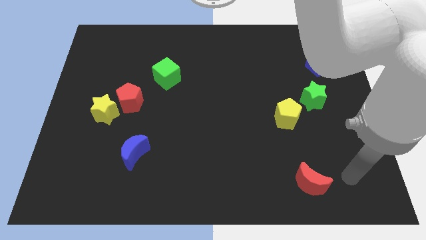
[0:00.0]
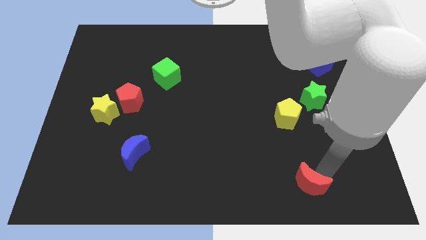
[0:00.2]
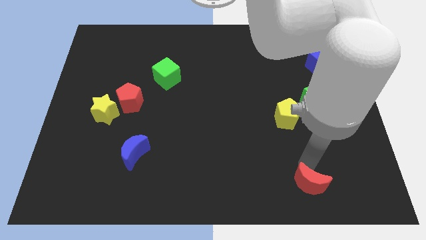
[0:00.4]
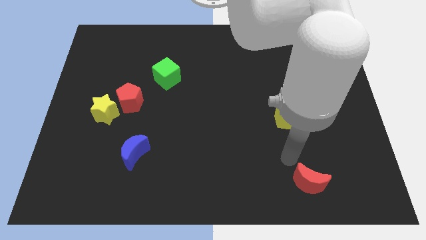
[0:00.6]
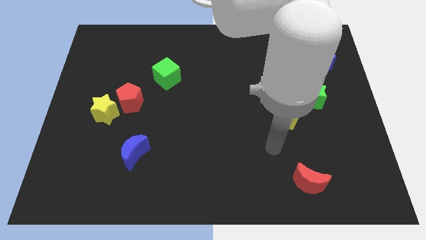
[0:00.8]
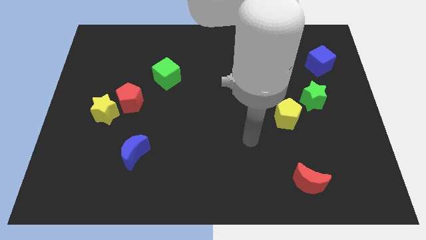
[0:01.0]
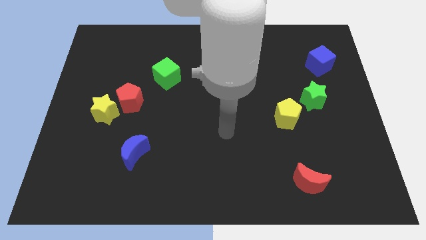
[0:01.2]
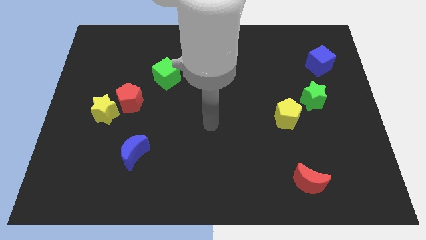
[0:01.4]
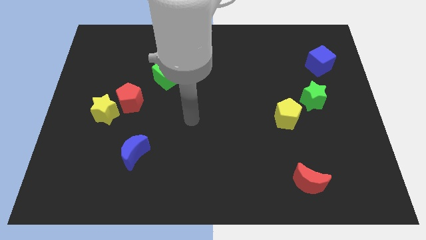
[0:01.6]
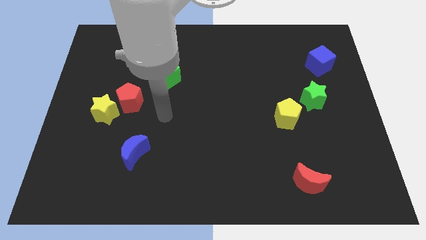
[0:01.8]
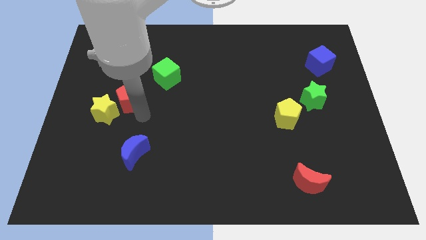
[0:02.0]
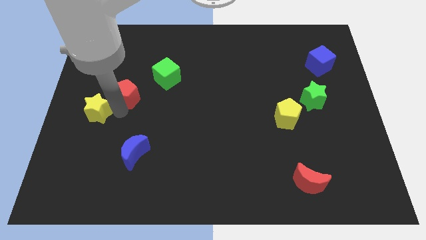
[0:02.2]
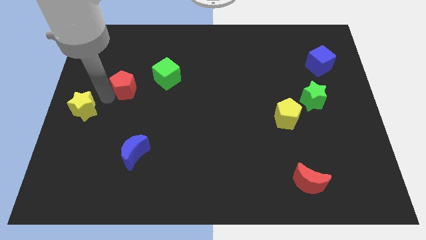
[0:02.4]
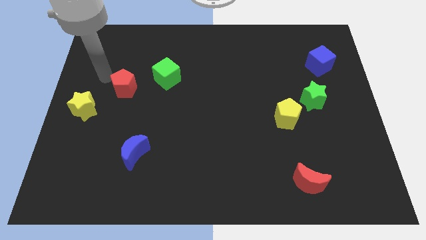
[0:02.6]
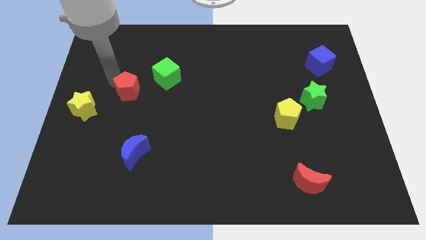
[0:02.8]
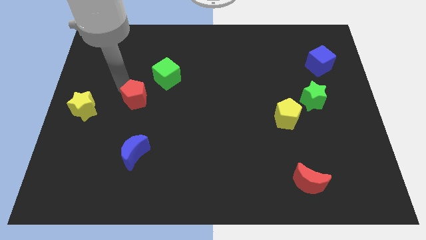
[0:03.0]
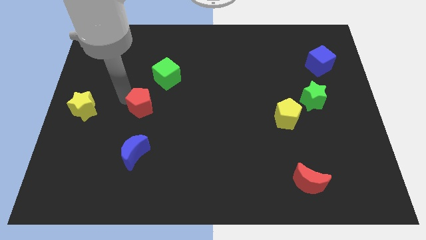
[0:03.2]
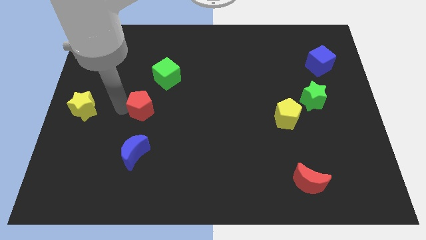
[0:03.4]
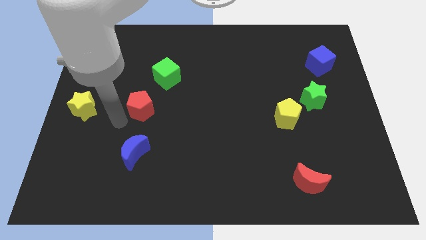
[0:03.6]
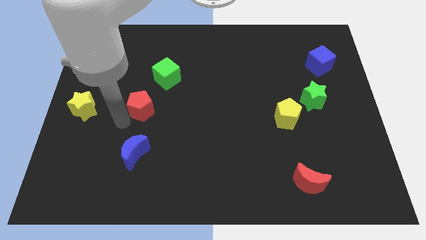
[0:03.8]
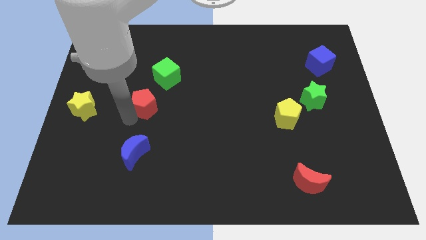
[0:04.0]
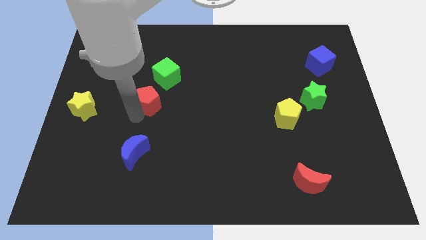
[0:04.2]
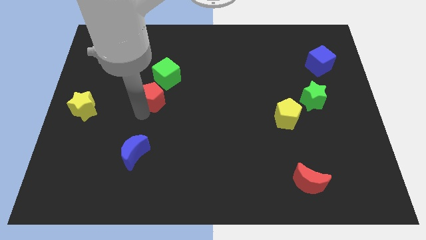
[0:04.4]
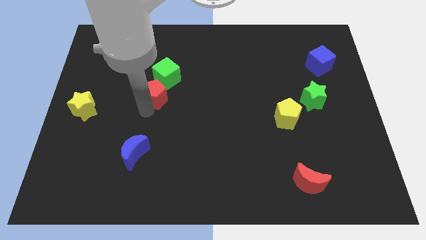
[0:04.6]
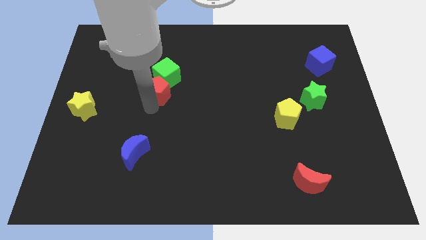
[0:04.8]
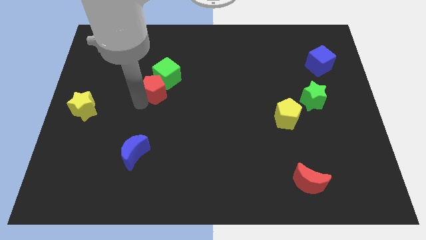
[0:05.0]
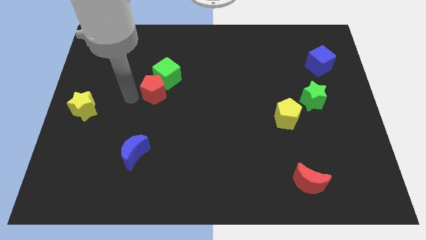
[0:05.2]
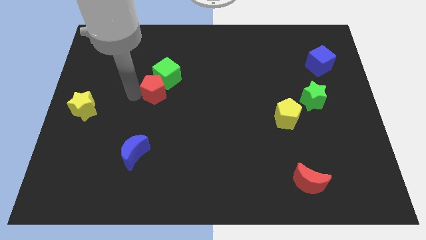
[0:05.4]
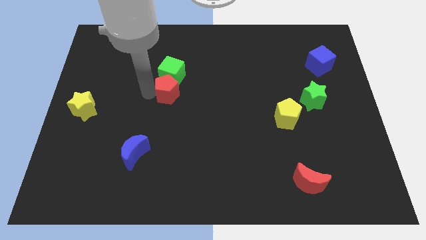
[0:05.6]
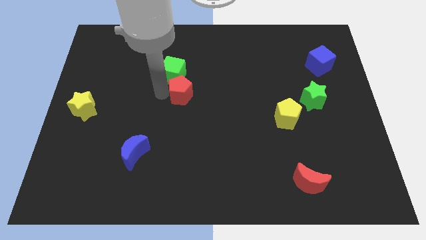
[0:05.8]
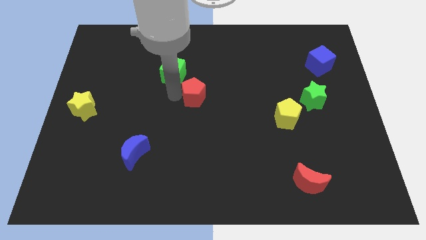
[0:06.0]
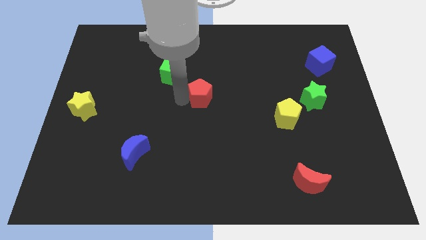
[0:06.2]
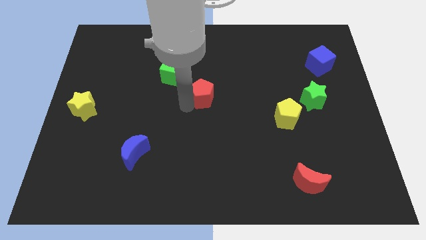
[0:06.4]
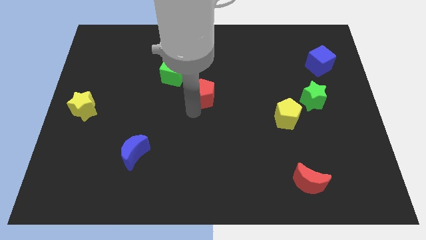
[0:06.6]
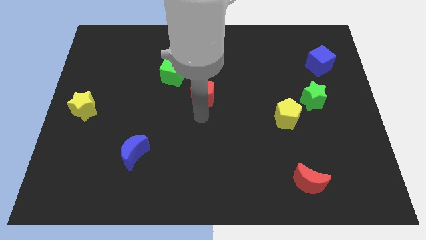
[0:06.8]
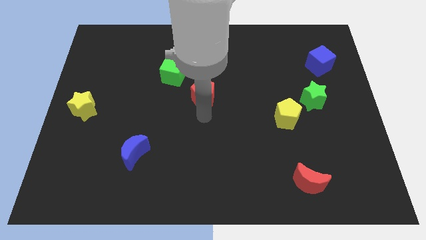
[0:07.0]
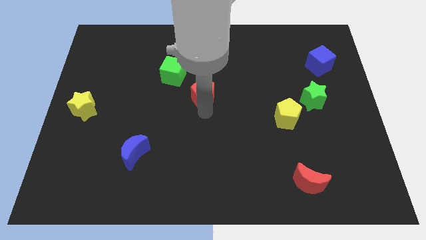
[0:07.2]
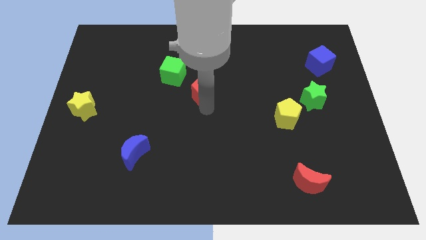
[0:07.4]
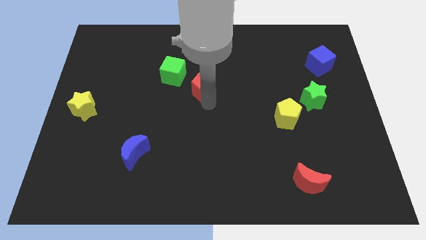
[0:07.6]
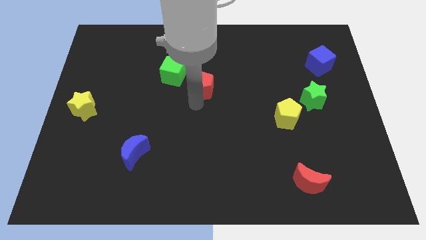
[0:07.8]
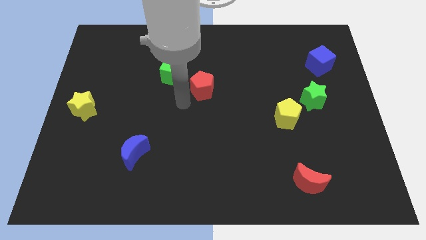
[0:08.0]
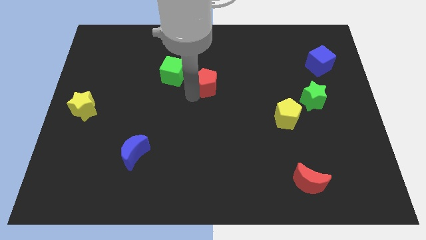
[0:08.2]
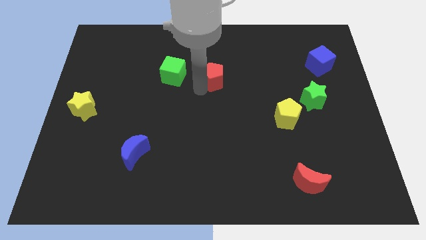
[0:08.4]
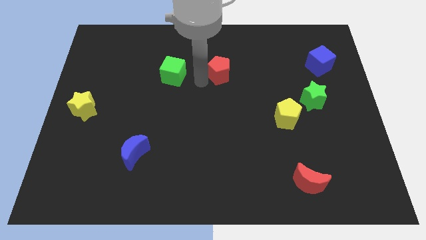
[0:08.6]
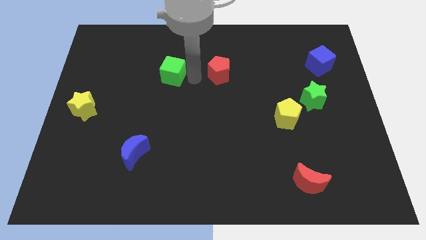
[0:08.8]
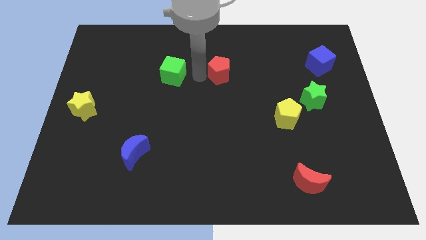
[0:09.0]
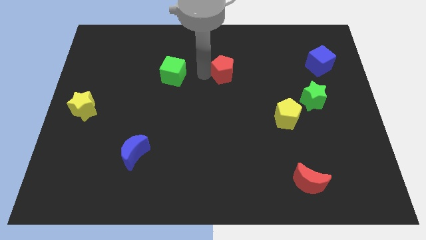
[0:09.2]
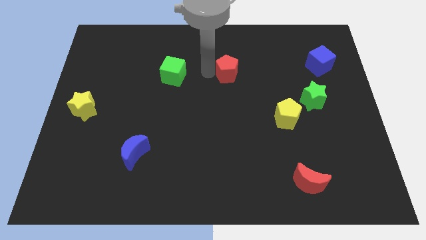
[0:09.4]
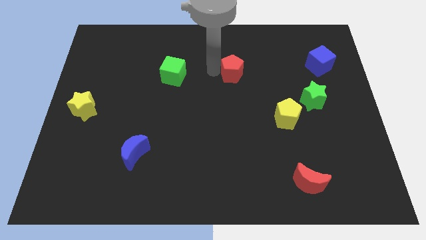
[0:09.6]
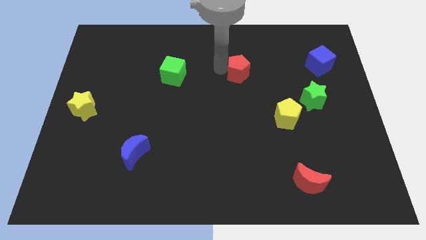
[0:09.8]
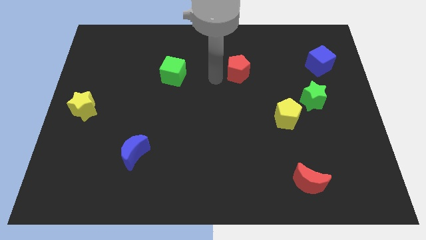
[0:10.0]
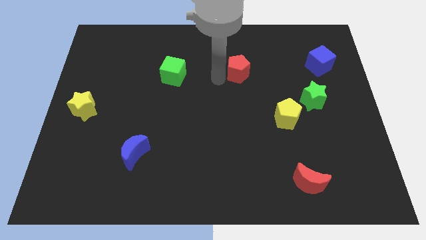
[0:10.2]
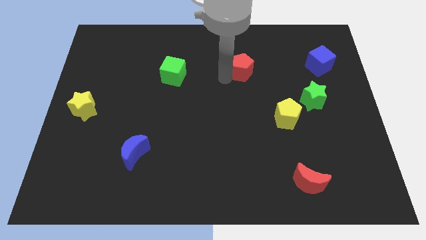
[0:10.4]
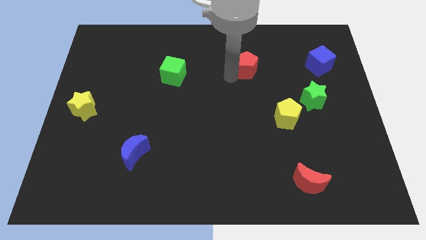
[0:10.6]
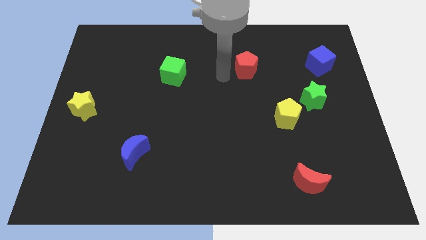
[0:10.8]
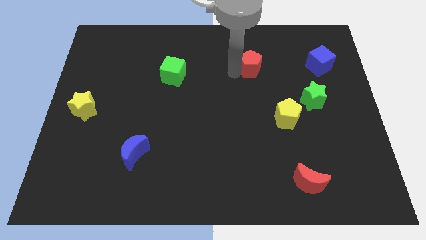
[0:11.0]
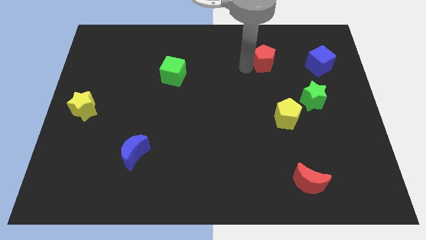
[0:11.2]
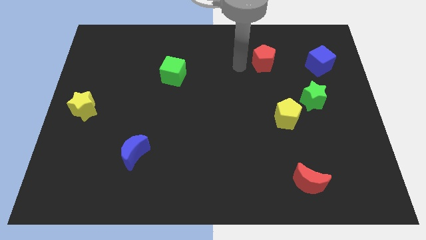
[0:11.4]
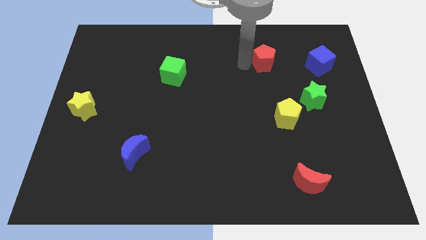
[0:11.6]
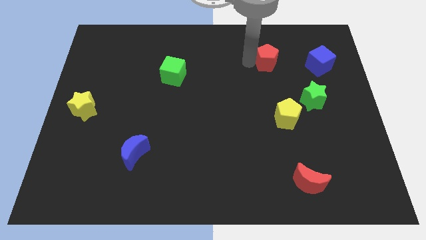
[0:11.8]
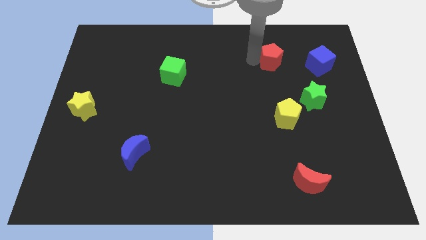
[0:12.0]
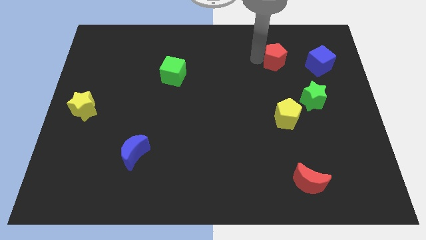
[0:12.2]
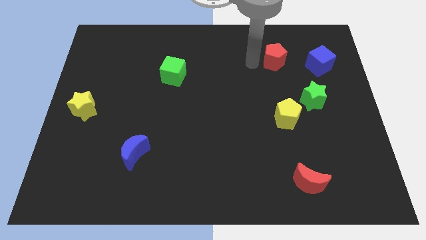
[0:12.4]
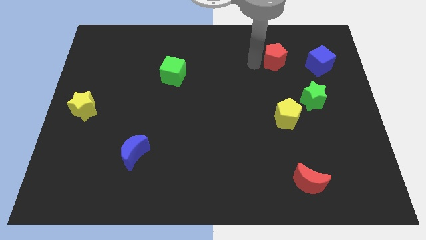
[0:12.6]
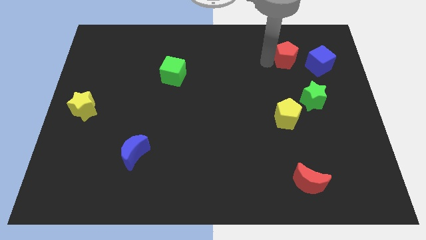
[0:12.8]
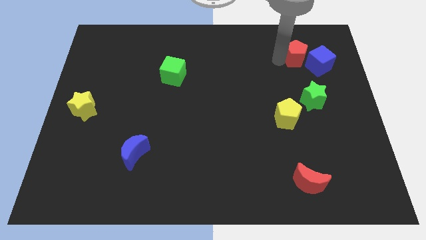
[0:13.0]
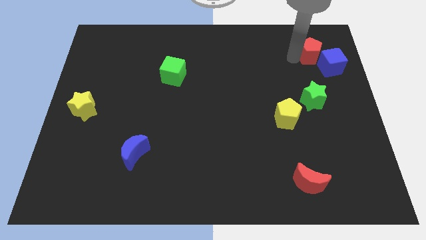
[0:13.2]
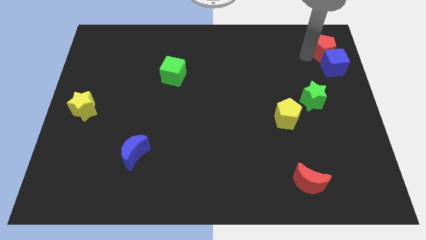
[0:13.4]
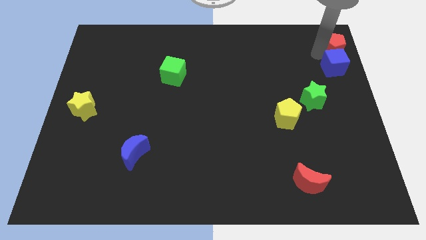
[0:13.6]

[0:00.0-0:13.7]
slide the red pentagon to the upper right corner

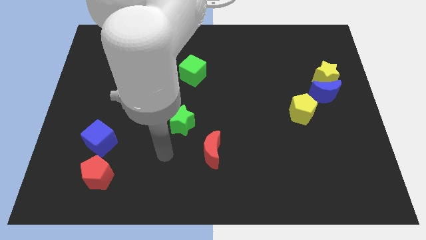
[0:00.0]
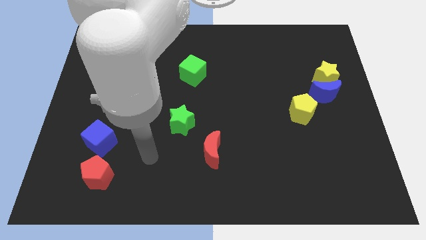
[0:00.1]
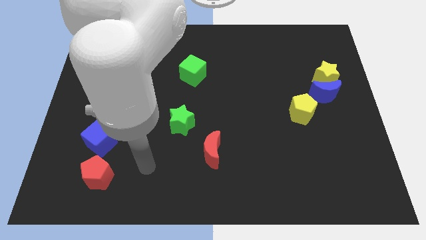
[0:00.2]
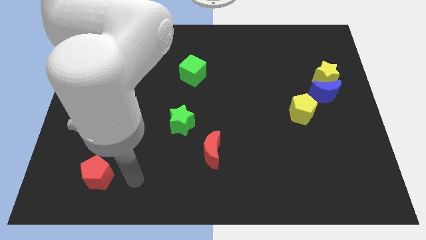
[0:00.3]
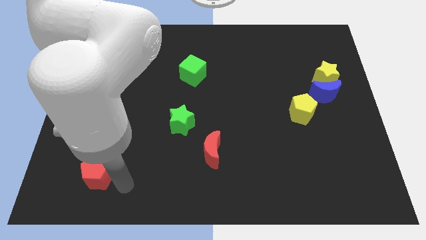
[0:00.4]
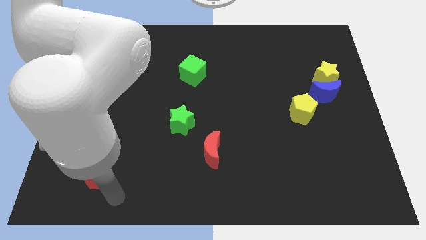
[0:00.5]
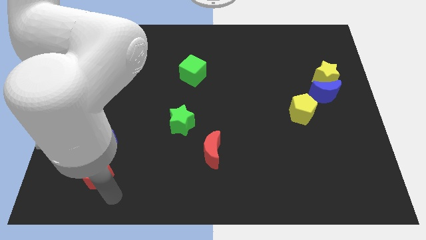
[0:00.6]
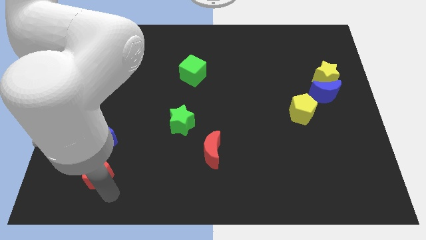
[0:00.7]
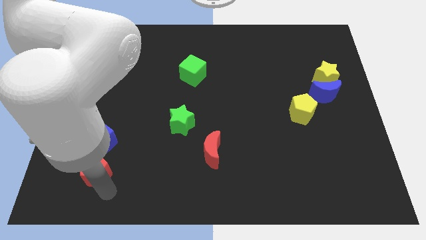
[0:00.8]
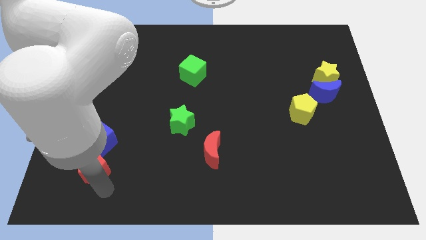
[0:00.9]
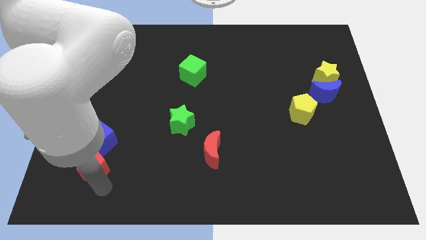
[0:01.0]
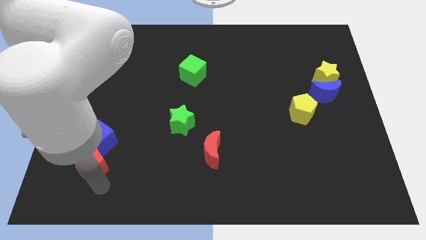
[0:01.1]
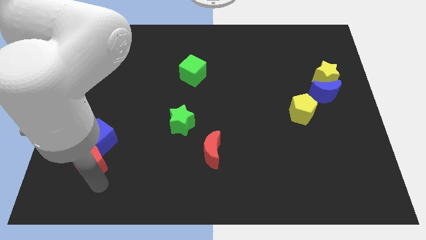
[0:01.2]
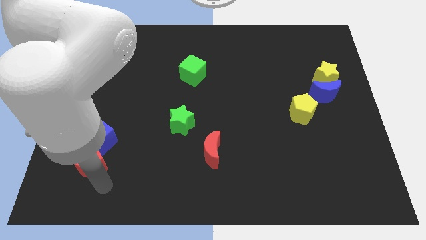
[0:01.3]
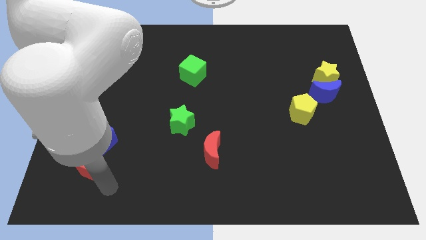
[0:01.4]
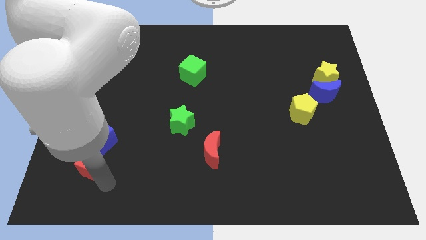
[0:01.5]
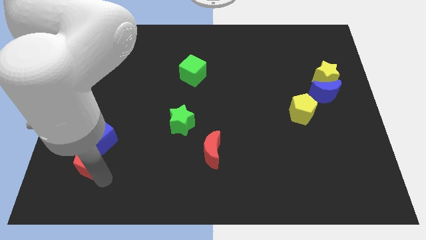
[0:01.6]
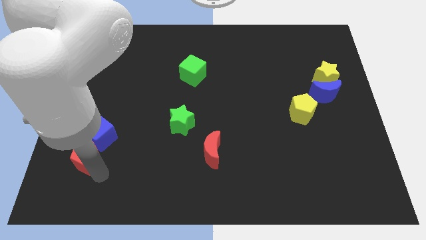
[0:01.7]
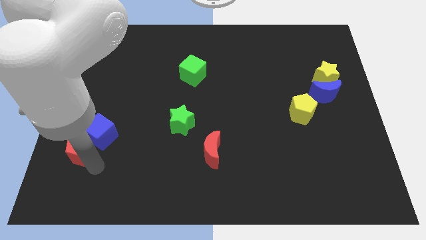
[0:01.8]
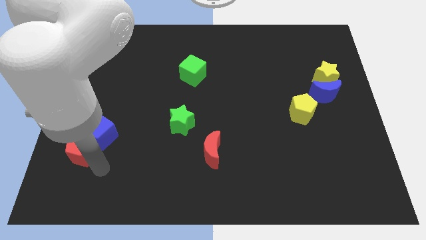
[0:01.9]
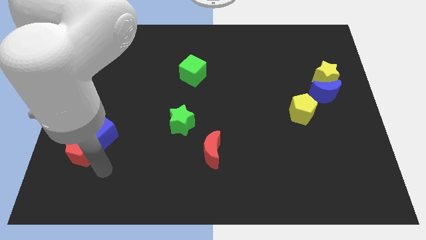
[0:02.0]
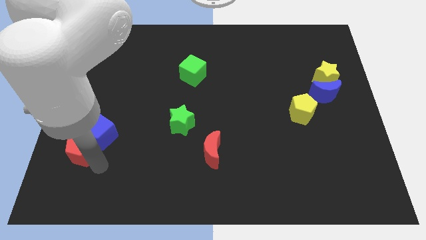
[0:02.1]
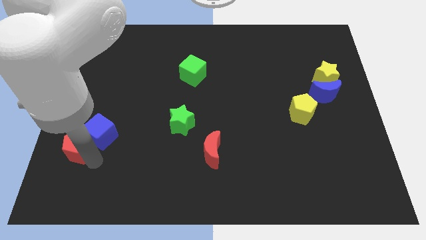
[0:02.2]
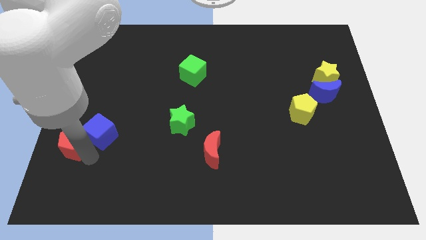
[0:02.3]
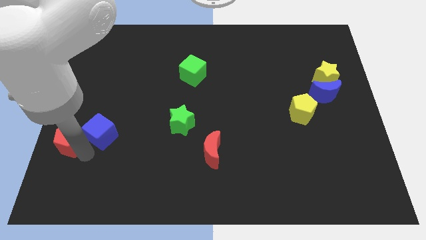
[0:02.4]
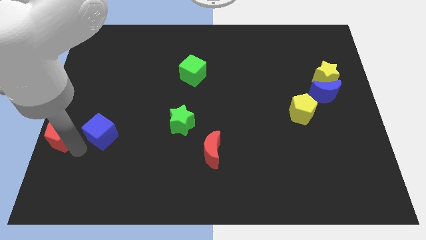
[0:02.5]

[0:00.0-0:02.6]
move the red pentagon to the left side of the board
